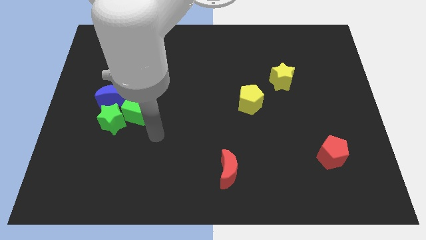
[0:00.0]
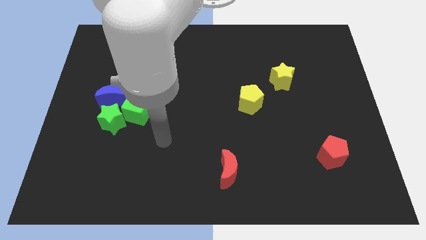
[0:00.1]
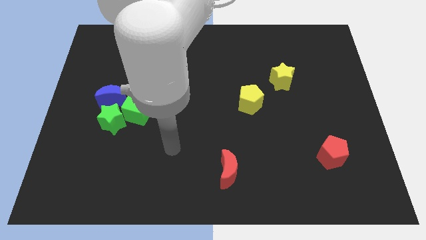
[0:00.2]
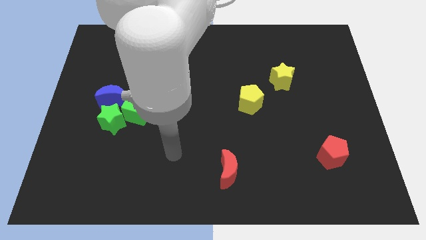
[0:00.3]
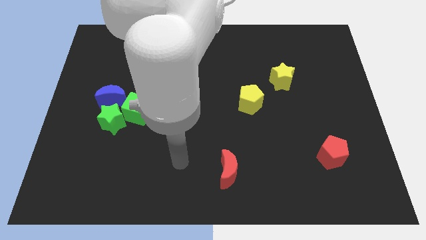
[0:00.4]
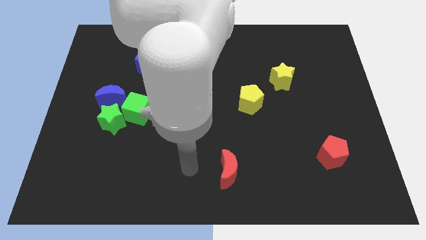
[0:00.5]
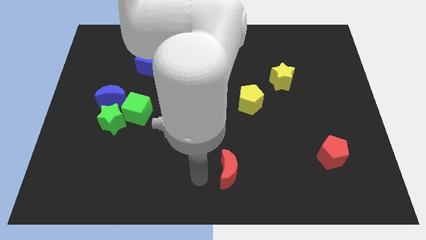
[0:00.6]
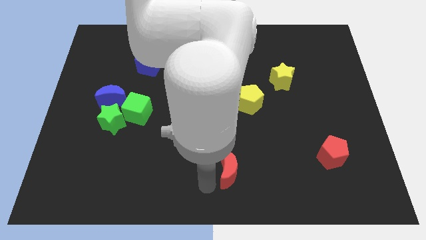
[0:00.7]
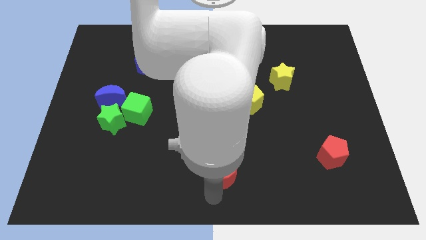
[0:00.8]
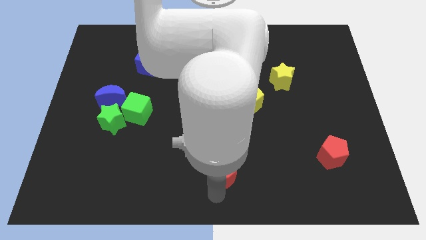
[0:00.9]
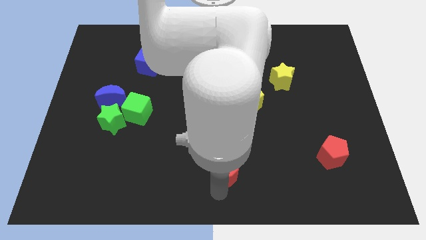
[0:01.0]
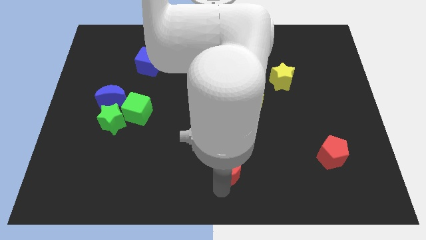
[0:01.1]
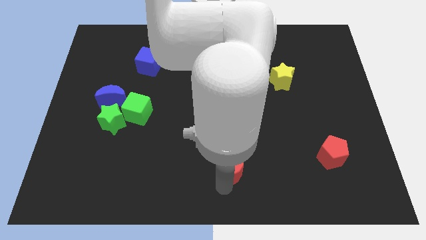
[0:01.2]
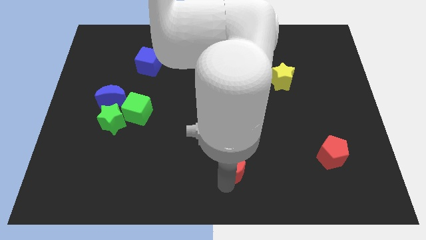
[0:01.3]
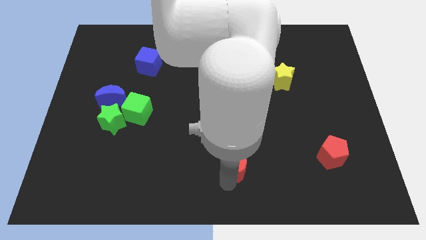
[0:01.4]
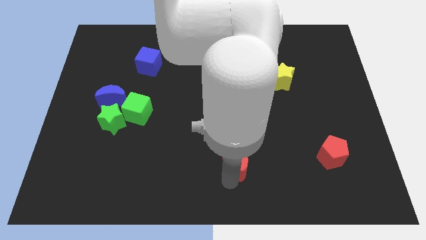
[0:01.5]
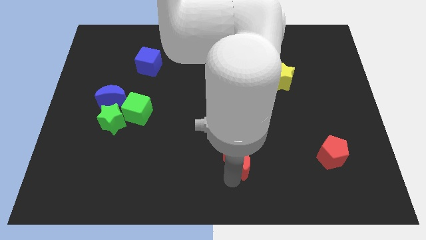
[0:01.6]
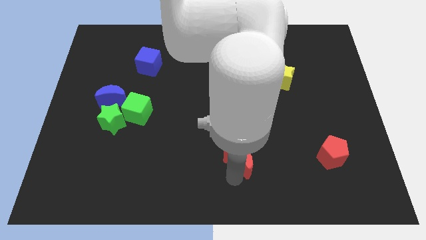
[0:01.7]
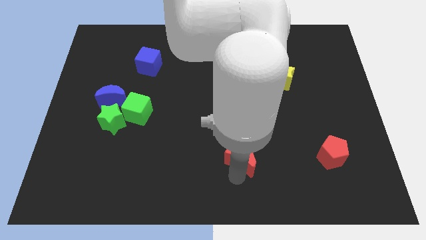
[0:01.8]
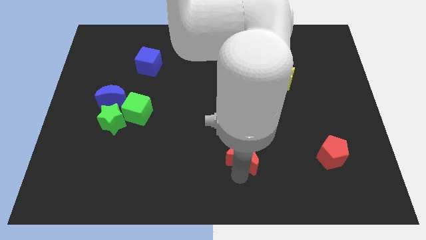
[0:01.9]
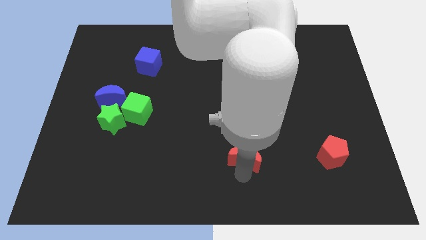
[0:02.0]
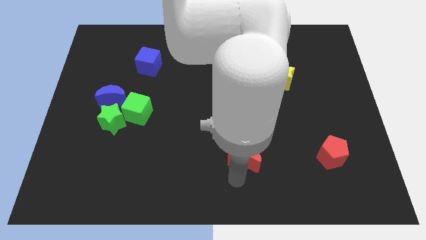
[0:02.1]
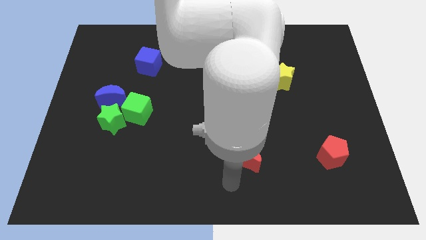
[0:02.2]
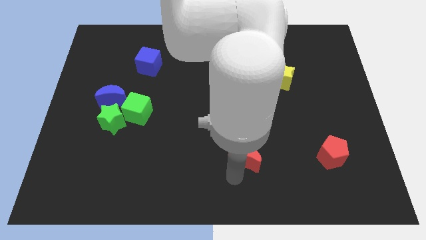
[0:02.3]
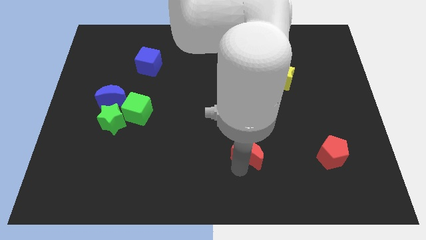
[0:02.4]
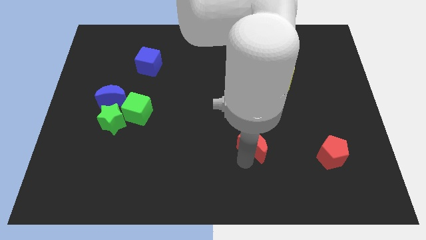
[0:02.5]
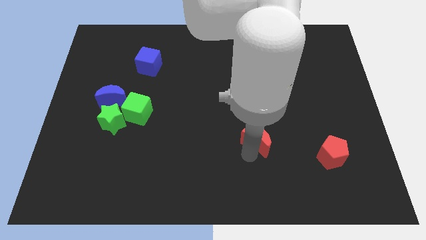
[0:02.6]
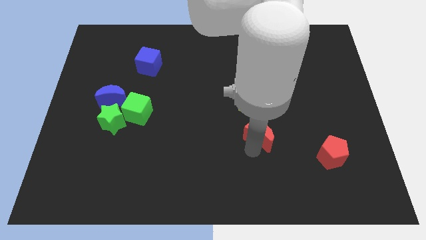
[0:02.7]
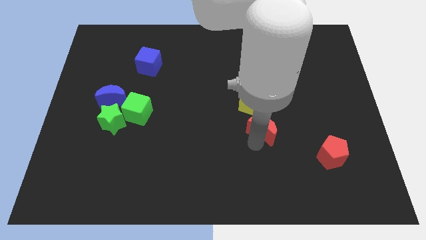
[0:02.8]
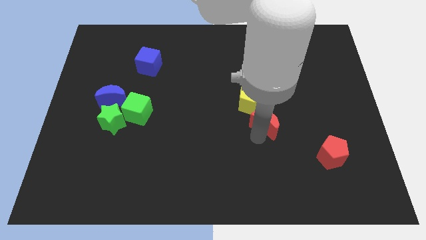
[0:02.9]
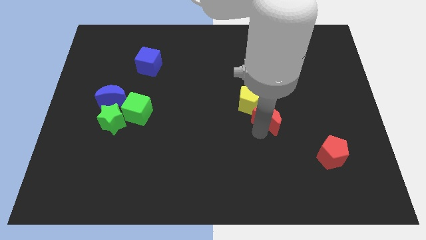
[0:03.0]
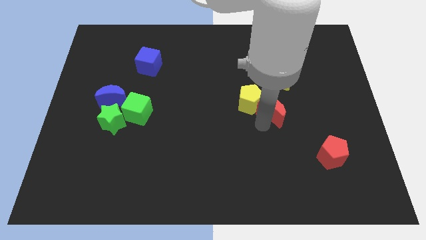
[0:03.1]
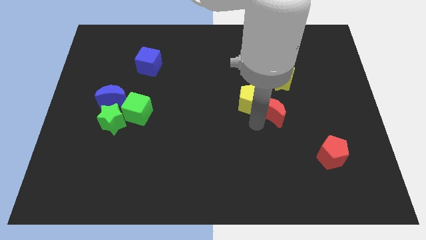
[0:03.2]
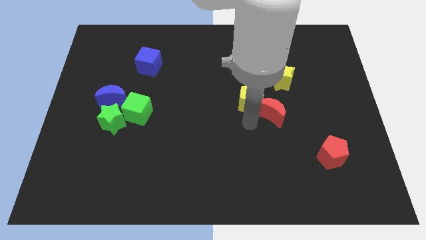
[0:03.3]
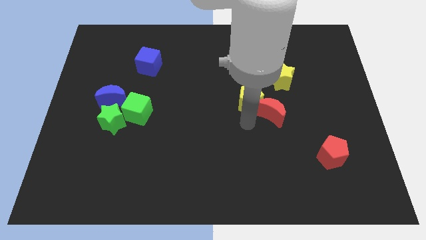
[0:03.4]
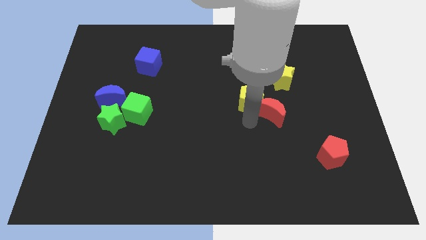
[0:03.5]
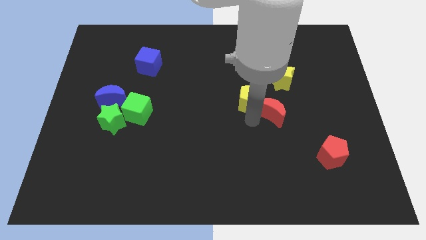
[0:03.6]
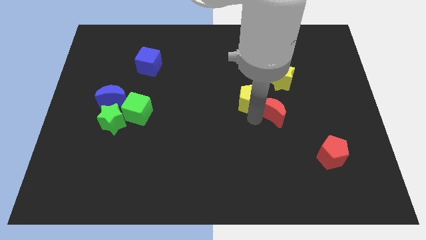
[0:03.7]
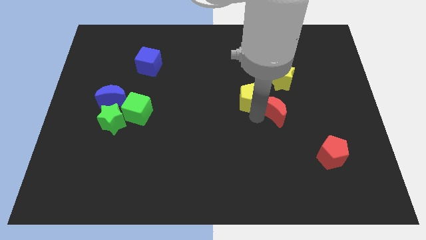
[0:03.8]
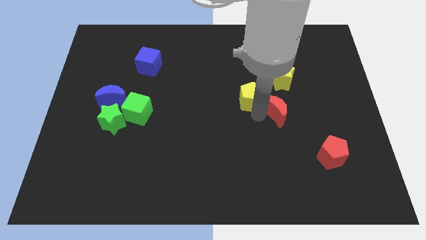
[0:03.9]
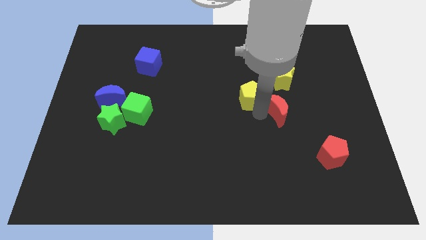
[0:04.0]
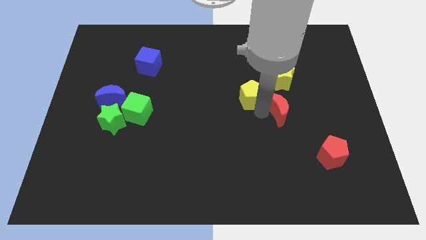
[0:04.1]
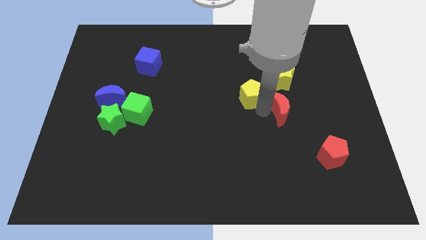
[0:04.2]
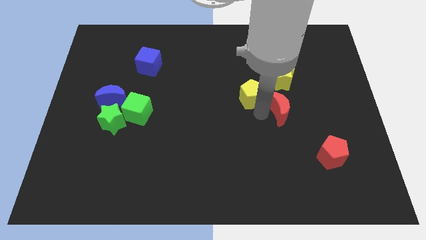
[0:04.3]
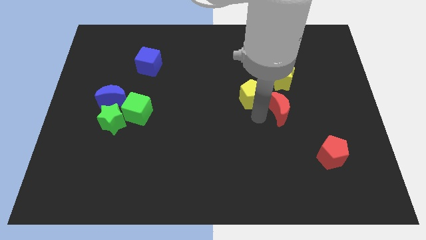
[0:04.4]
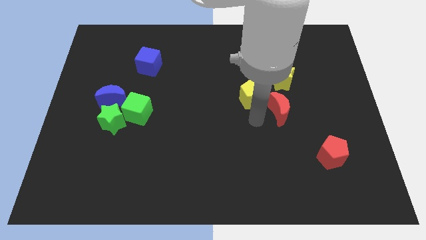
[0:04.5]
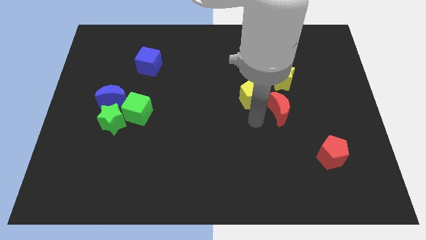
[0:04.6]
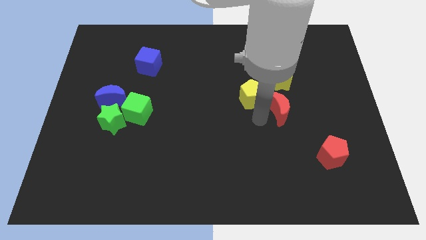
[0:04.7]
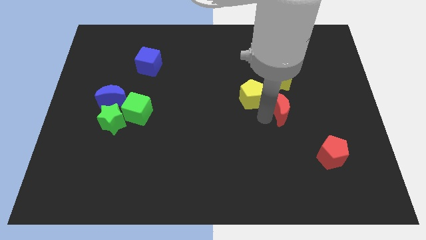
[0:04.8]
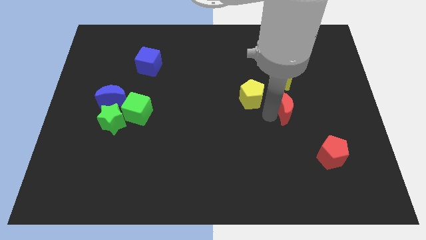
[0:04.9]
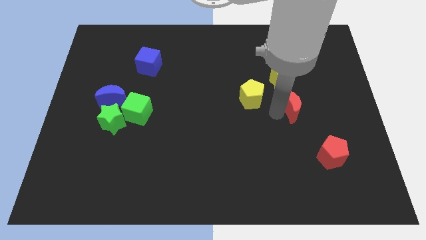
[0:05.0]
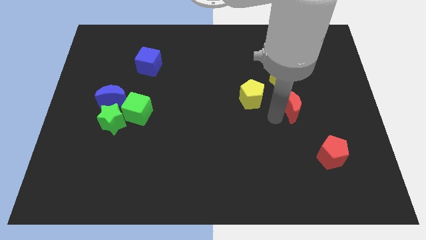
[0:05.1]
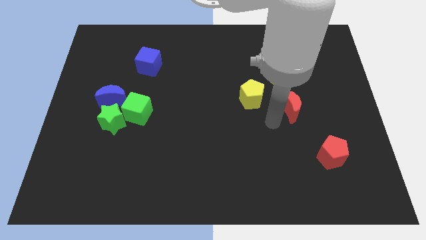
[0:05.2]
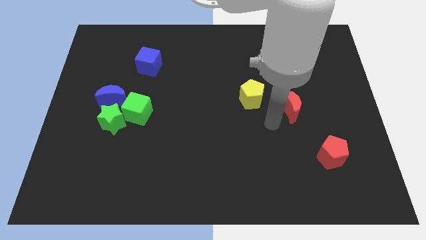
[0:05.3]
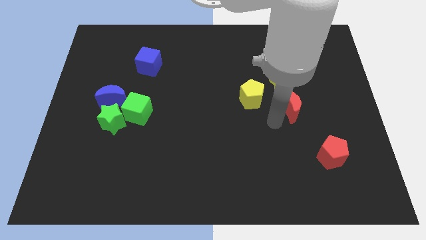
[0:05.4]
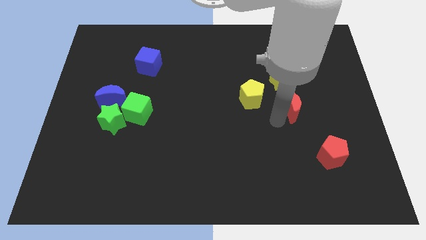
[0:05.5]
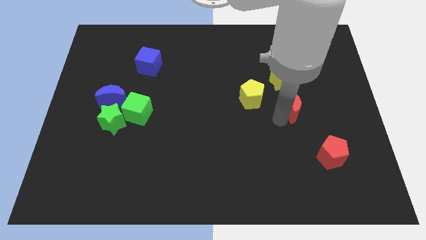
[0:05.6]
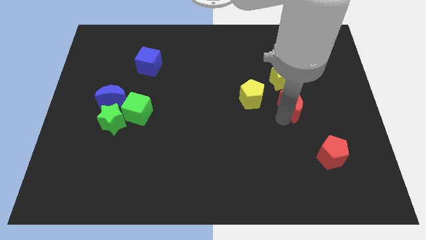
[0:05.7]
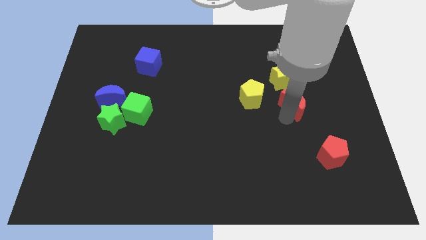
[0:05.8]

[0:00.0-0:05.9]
push the red moon to the bottom right of the yellow star
